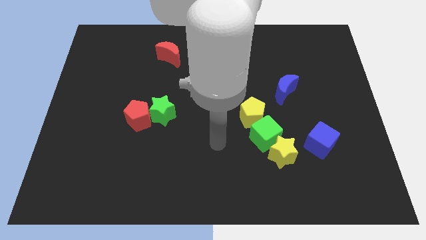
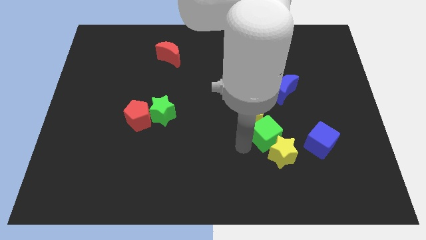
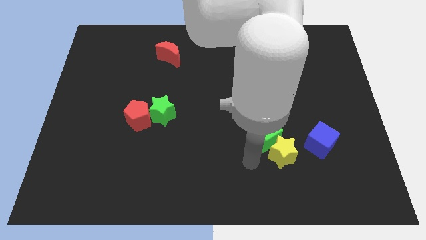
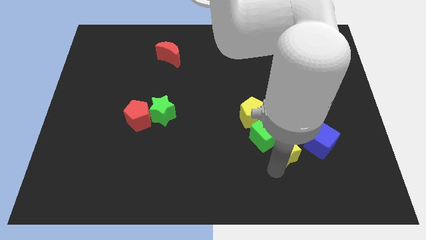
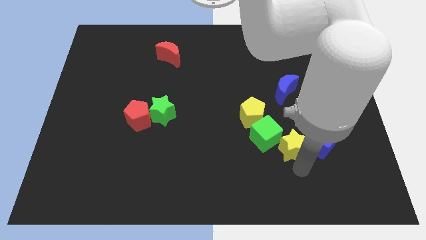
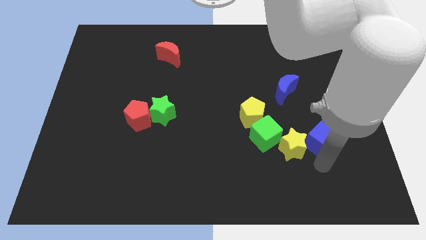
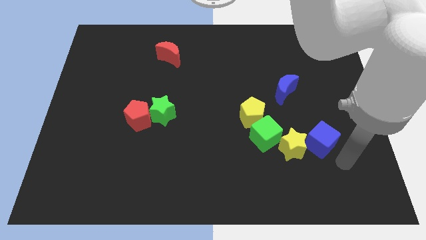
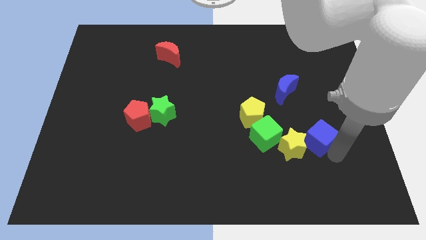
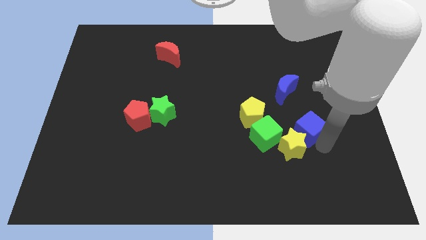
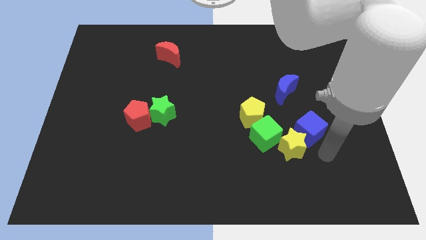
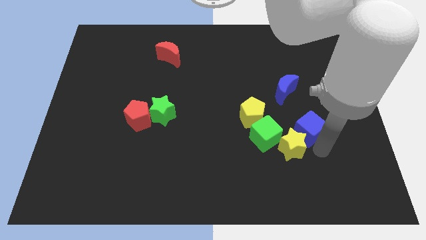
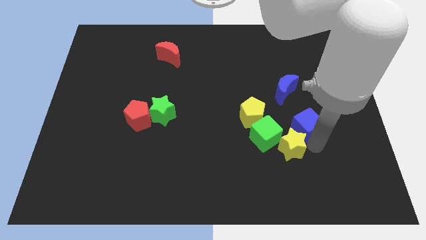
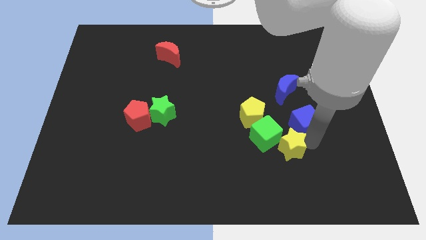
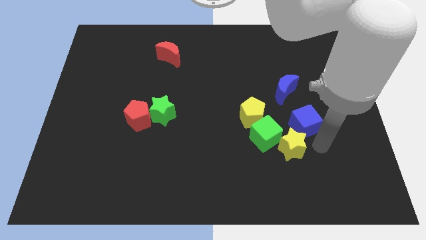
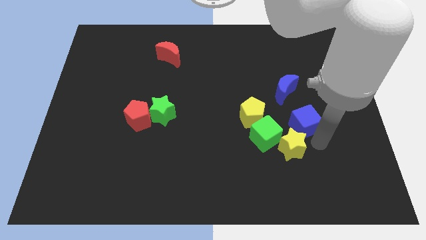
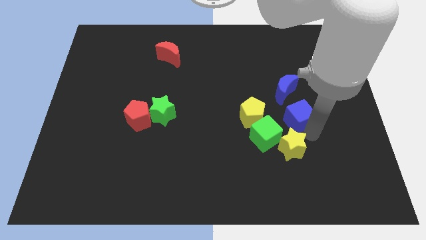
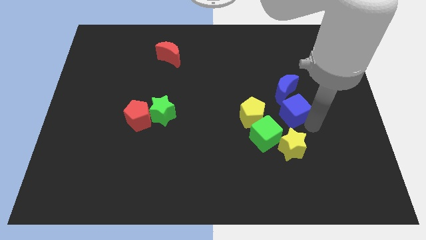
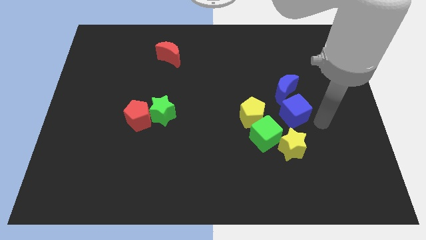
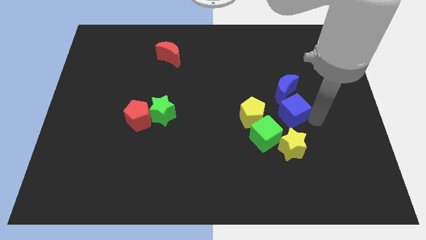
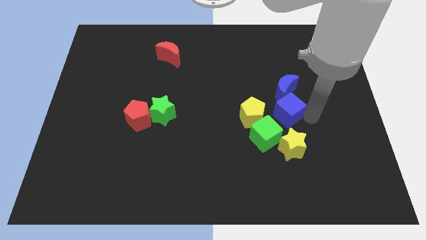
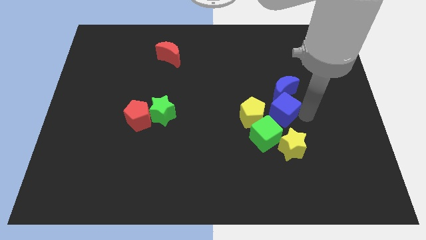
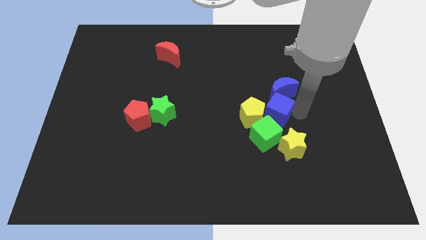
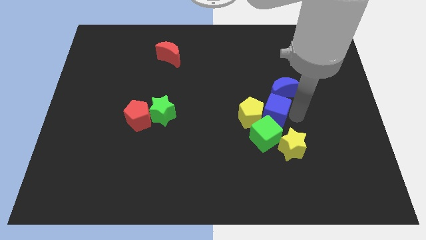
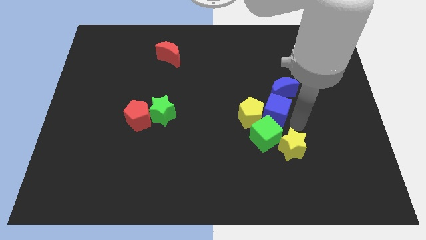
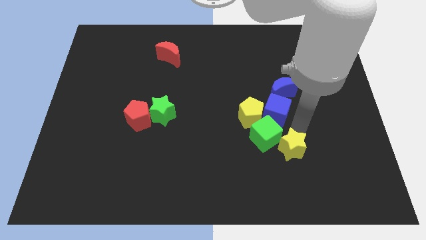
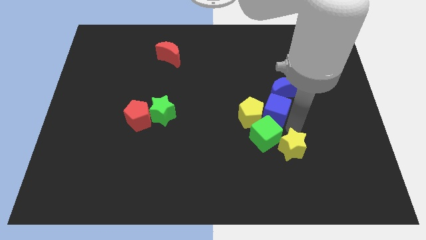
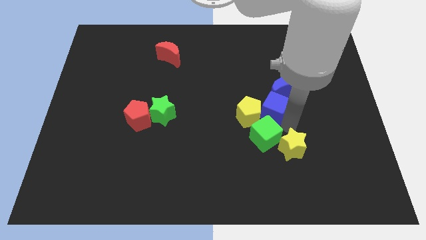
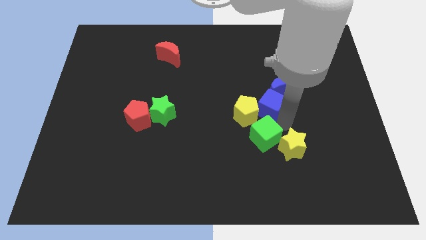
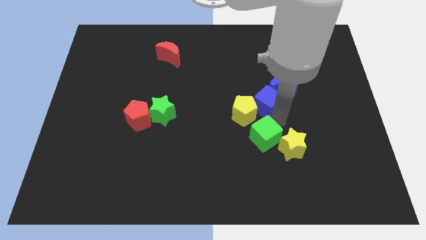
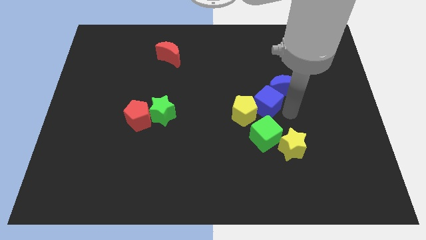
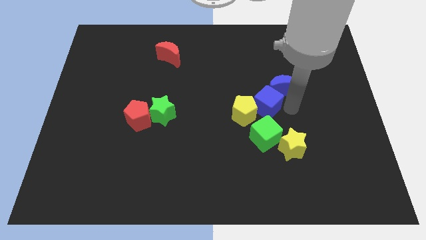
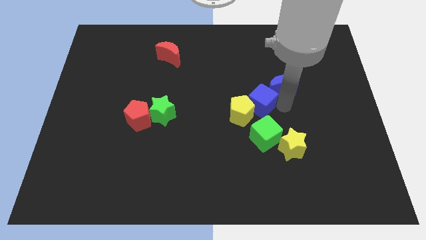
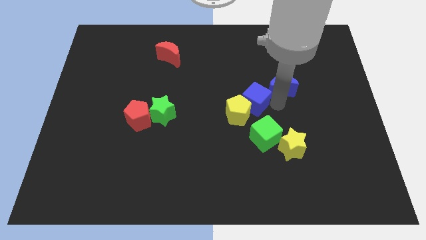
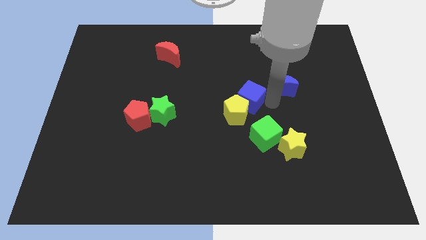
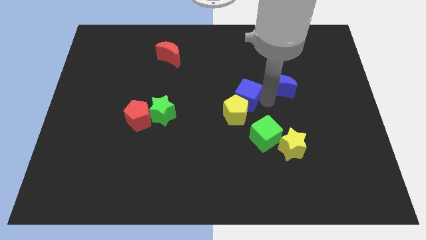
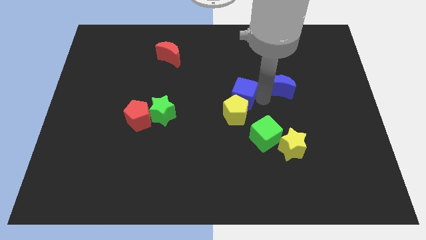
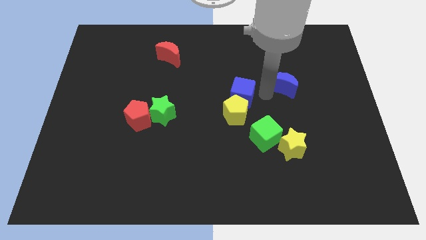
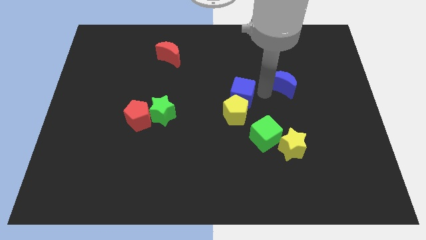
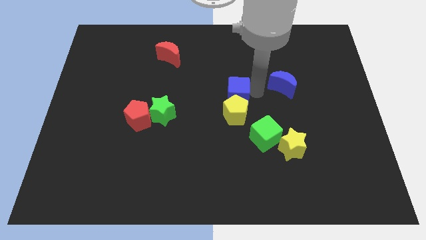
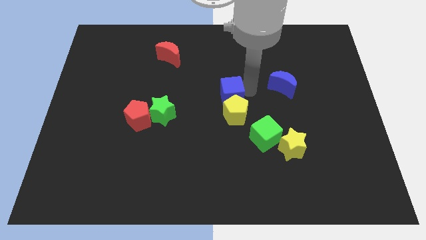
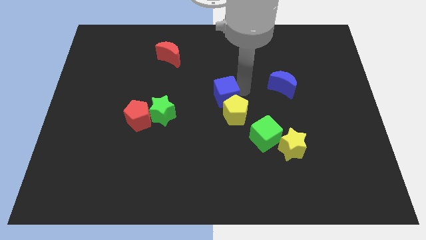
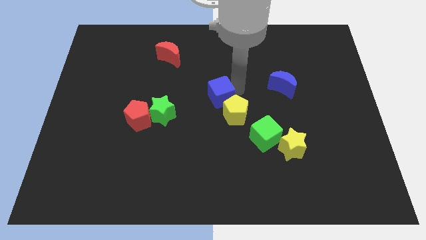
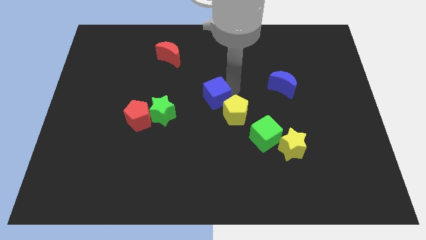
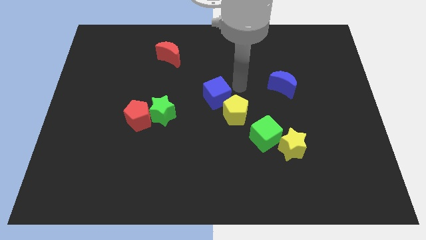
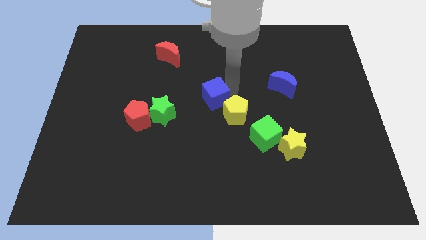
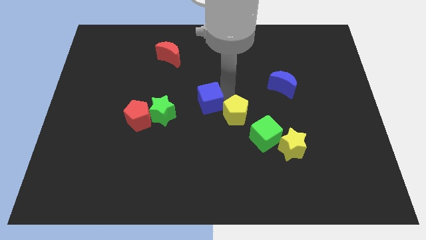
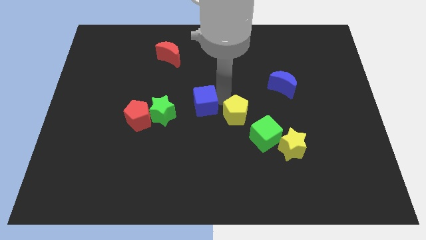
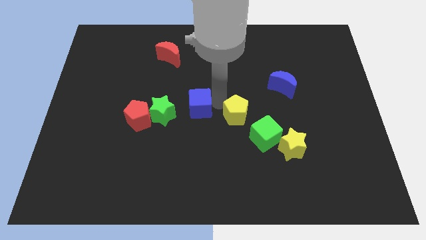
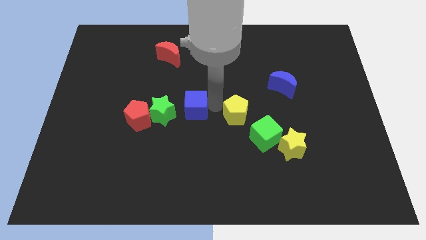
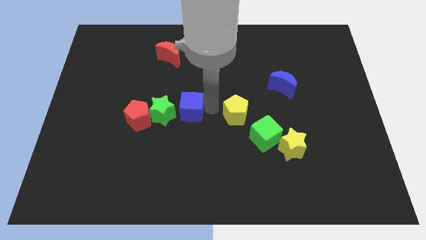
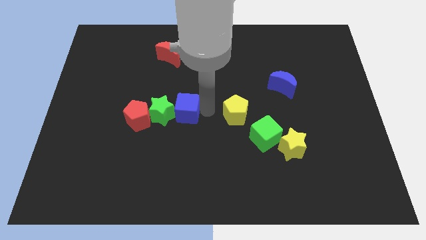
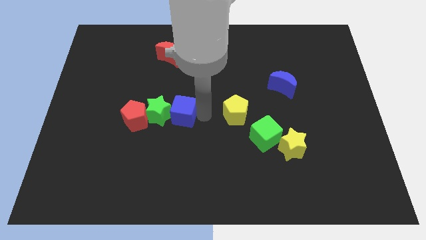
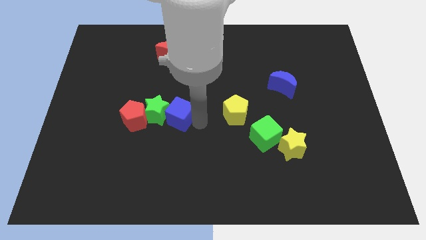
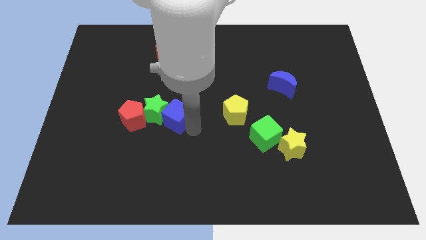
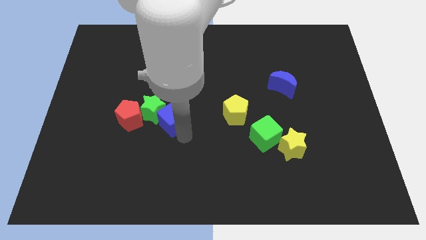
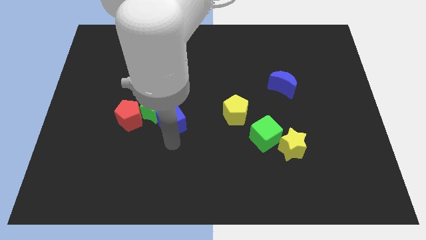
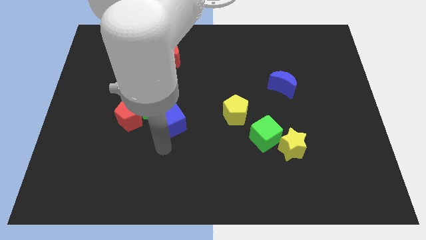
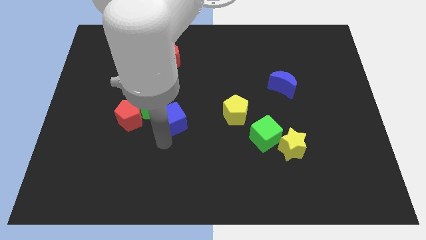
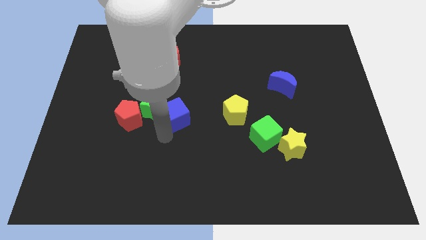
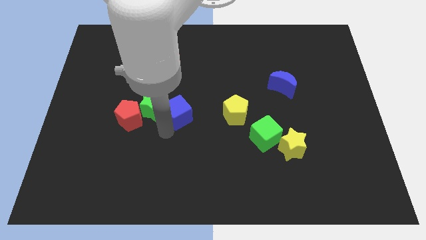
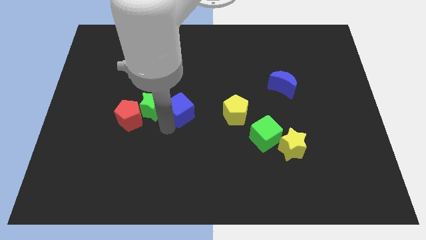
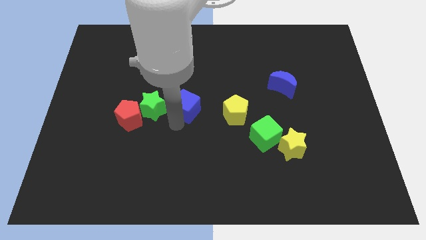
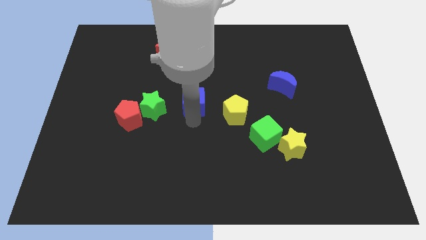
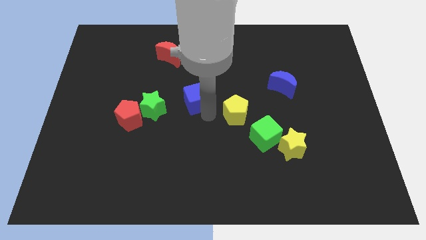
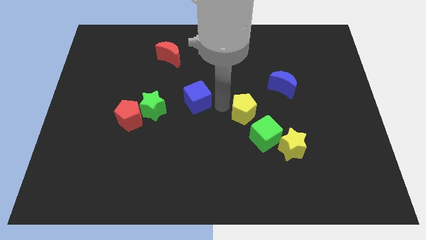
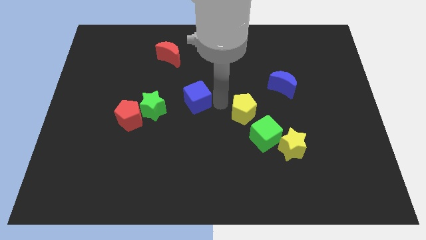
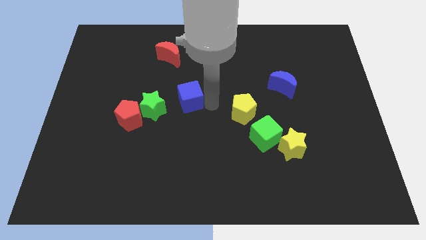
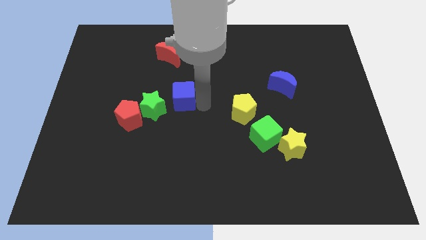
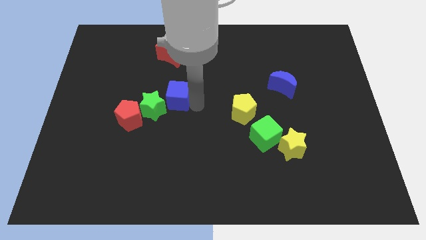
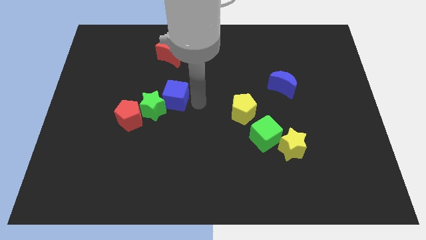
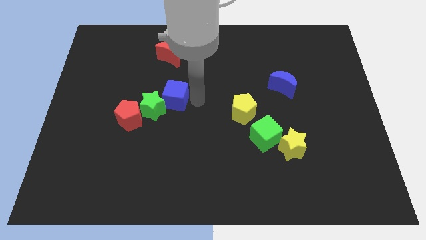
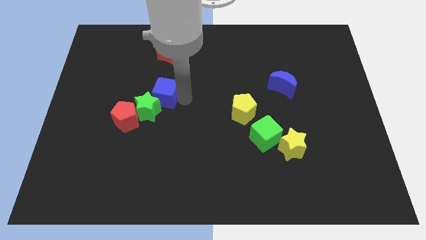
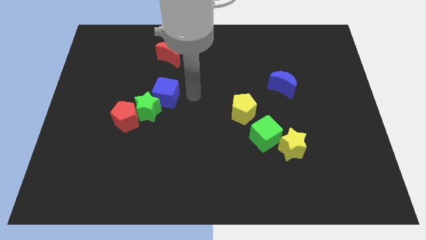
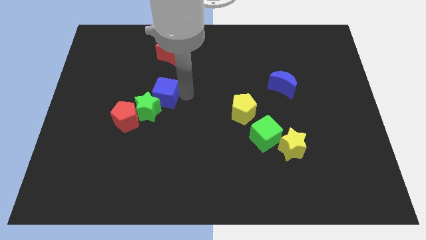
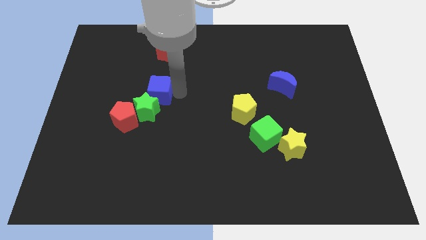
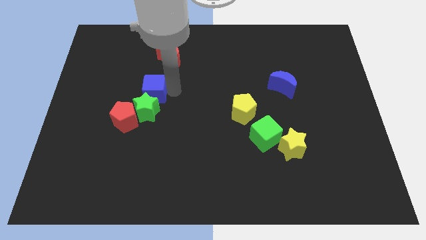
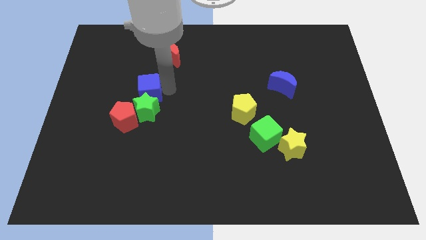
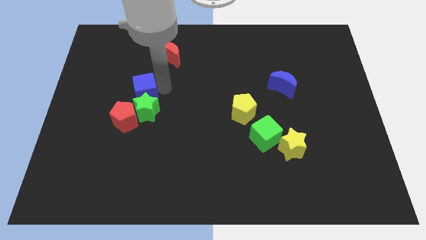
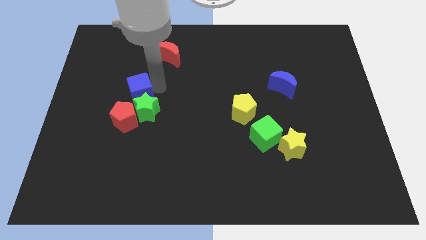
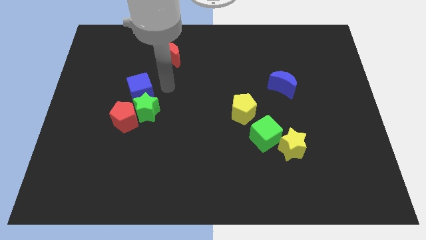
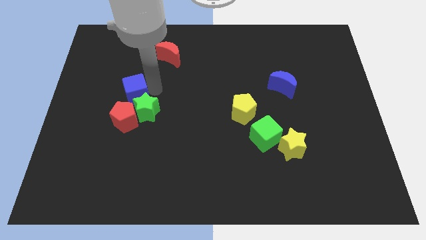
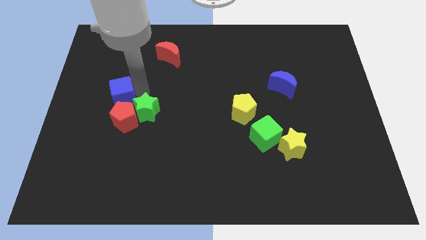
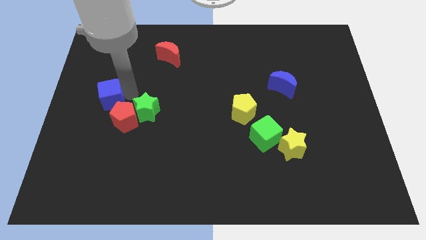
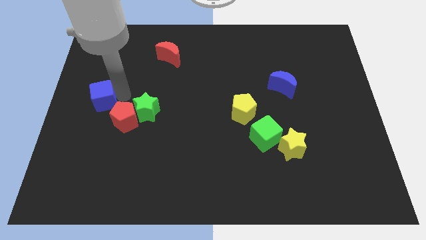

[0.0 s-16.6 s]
slide the blue cube to the left side of the board
